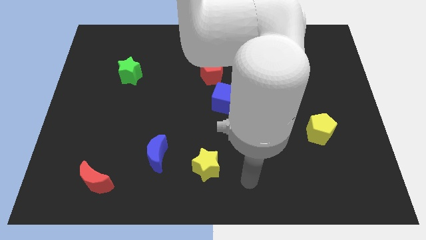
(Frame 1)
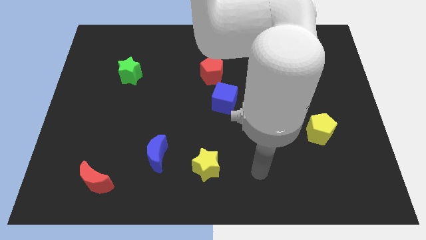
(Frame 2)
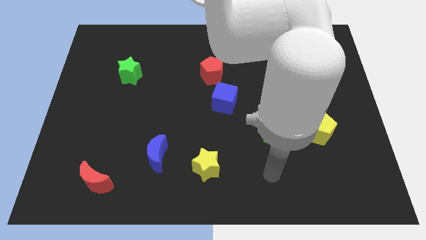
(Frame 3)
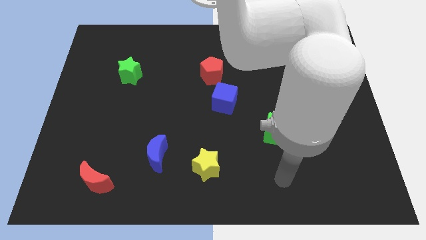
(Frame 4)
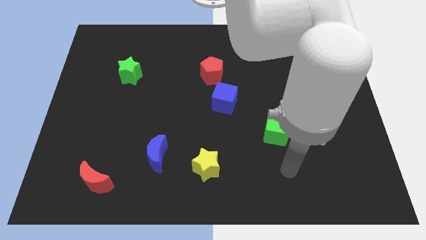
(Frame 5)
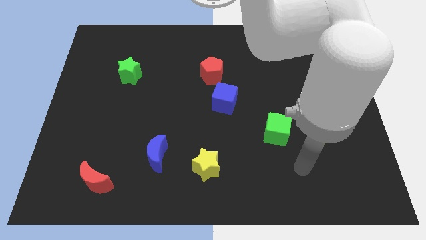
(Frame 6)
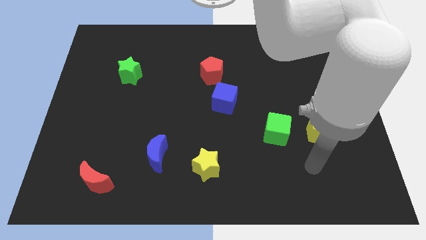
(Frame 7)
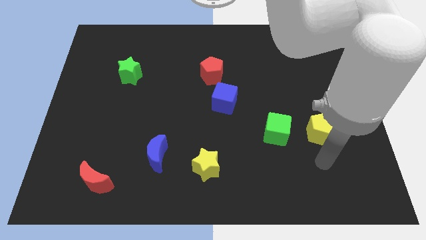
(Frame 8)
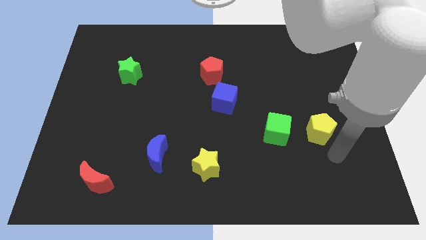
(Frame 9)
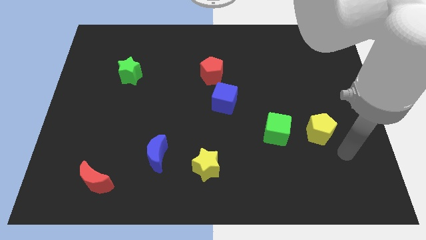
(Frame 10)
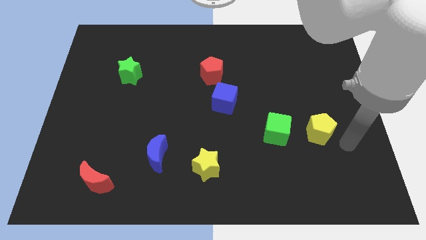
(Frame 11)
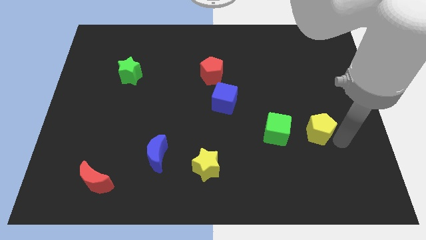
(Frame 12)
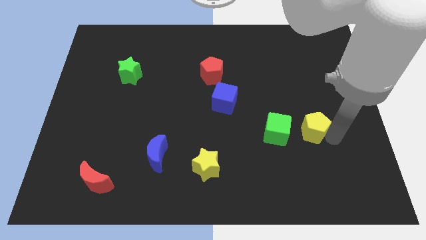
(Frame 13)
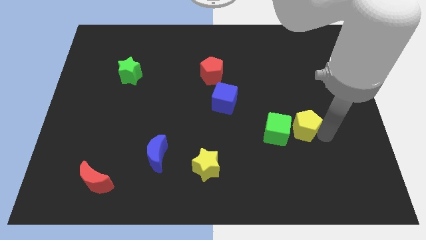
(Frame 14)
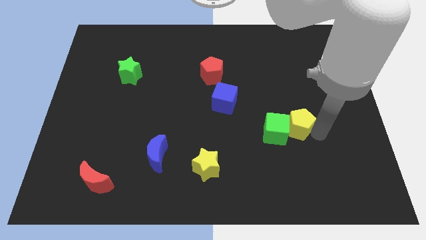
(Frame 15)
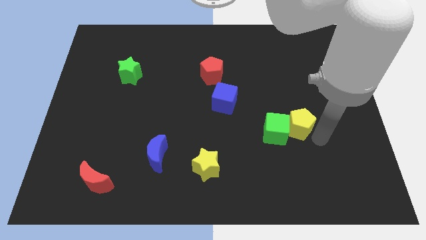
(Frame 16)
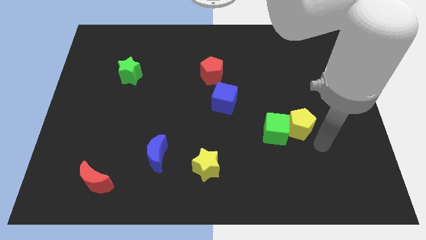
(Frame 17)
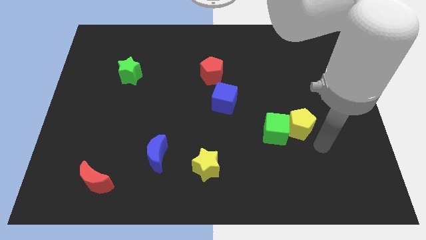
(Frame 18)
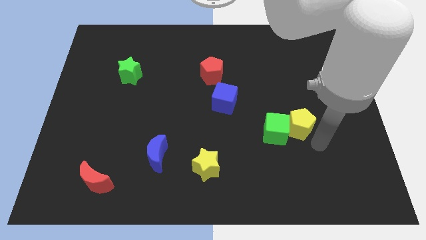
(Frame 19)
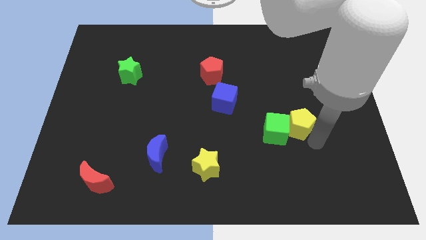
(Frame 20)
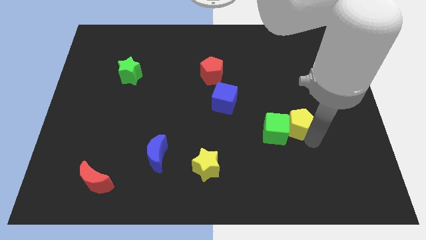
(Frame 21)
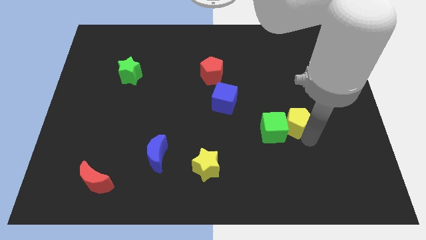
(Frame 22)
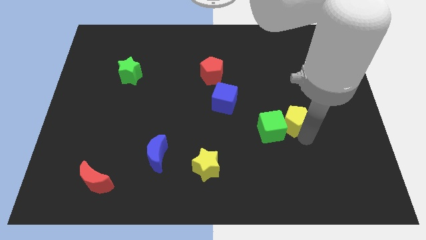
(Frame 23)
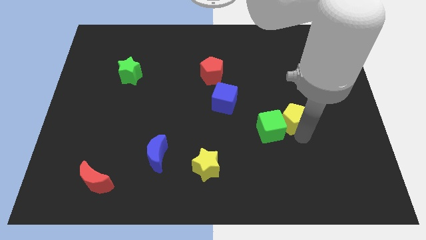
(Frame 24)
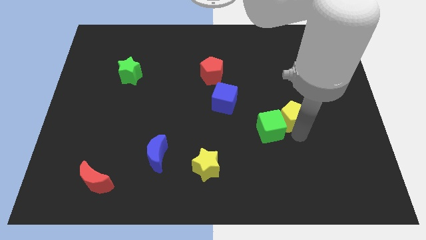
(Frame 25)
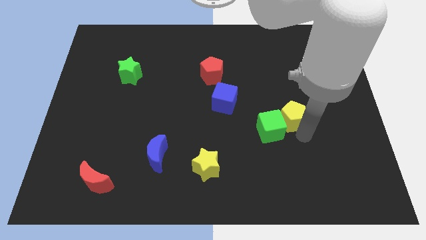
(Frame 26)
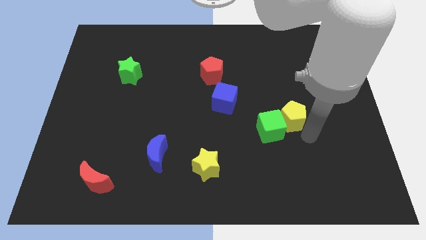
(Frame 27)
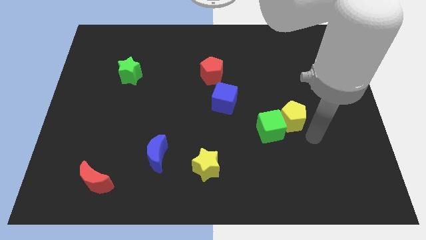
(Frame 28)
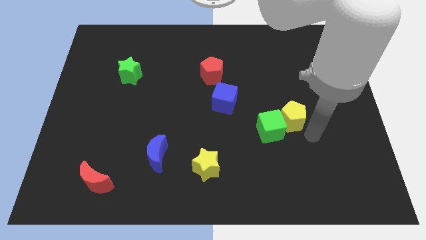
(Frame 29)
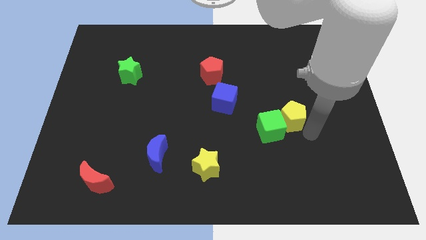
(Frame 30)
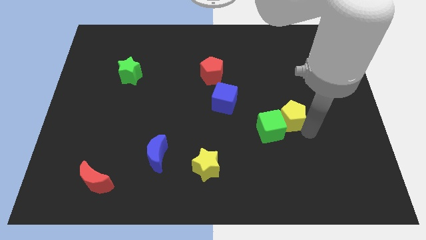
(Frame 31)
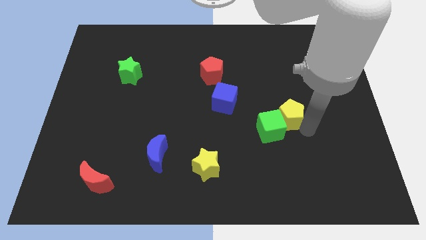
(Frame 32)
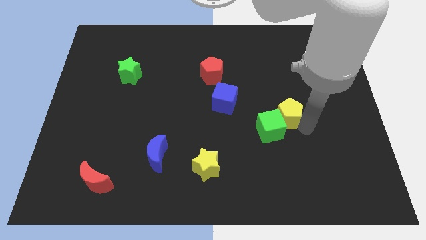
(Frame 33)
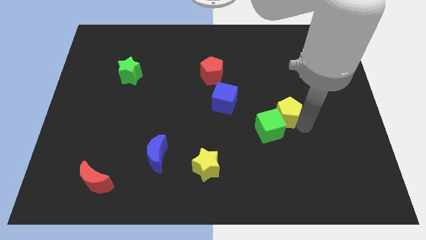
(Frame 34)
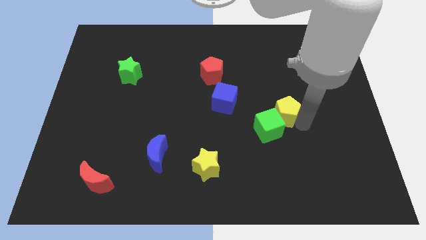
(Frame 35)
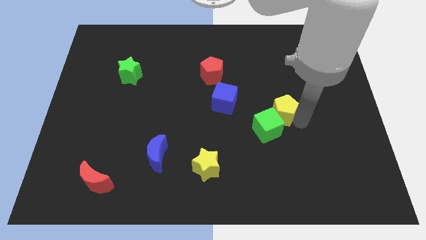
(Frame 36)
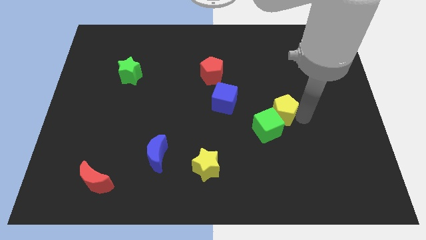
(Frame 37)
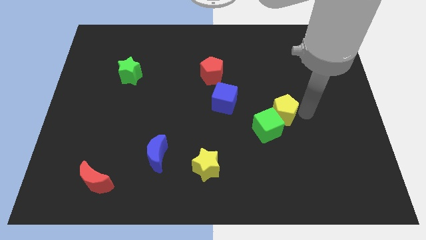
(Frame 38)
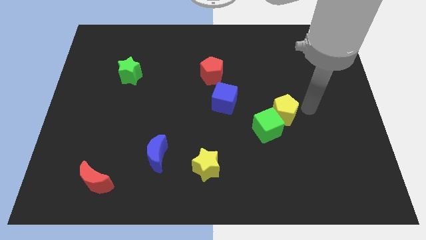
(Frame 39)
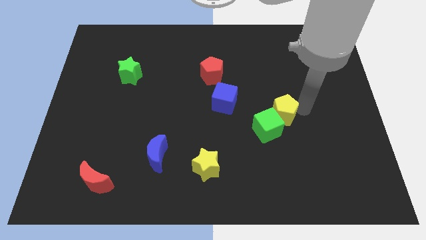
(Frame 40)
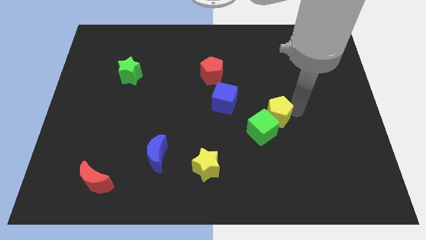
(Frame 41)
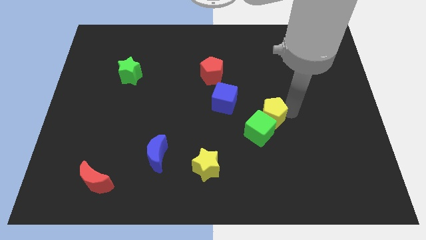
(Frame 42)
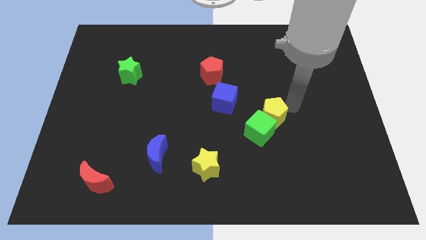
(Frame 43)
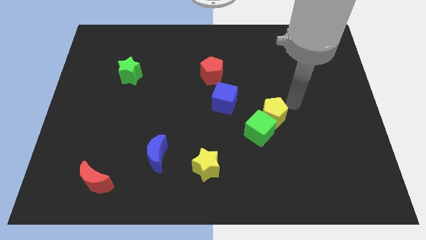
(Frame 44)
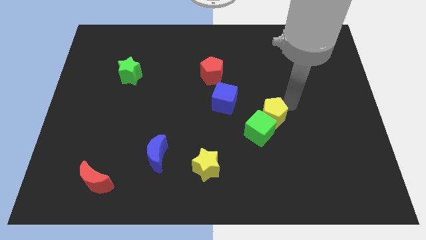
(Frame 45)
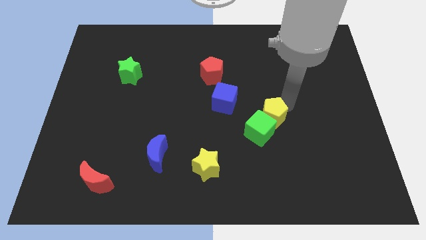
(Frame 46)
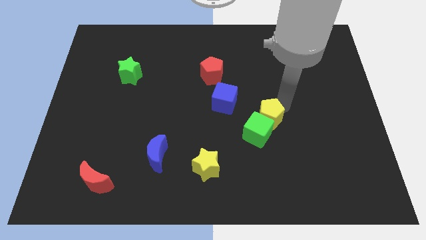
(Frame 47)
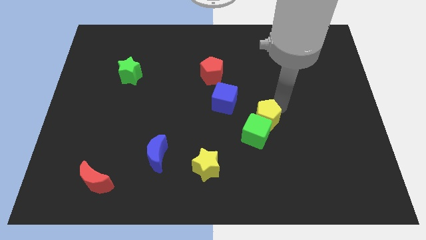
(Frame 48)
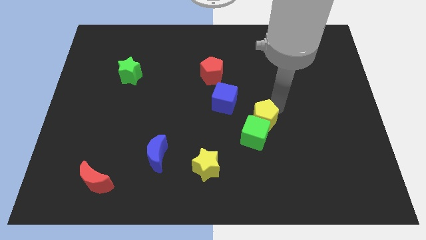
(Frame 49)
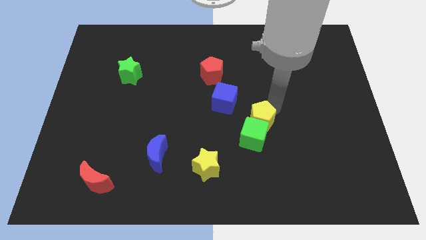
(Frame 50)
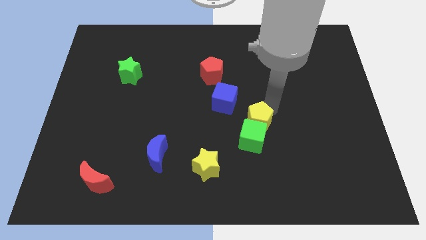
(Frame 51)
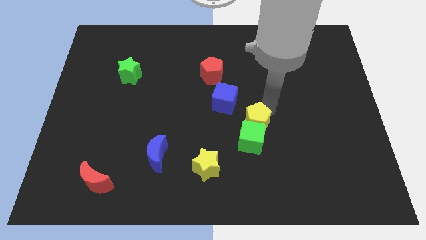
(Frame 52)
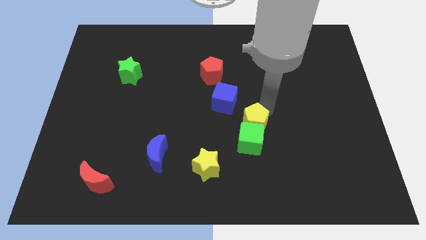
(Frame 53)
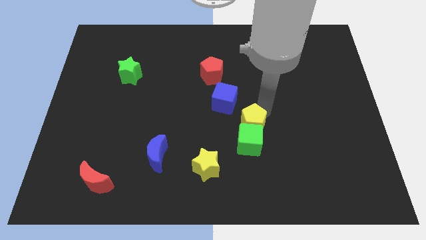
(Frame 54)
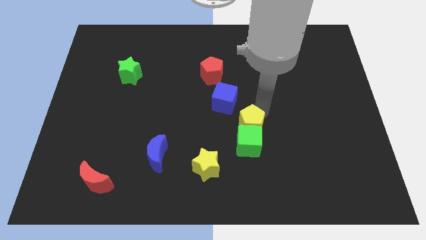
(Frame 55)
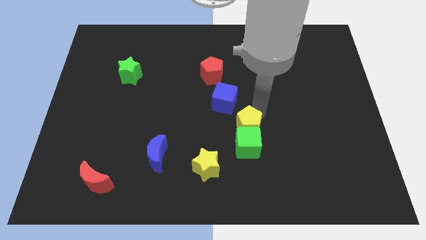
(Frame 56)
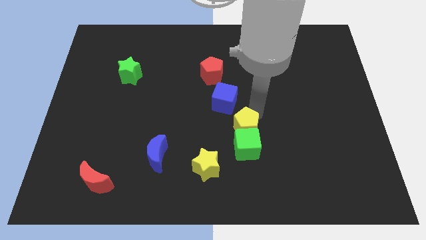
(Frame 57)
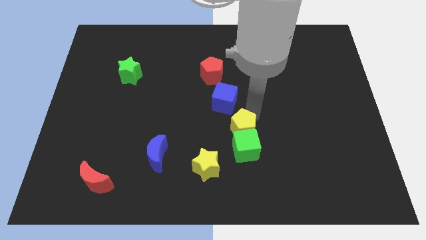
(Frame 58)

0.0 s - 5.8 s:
put the yellow pentagon diagonally up and to the right of the yellow star

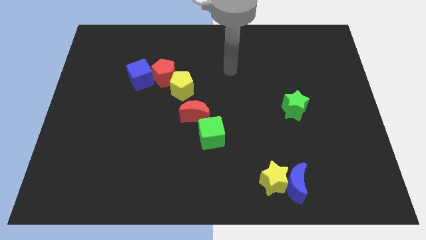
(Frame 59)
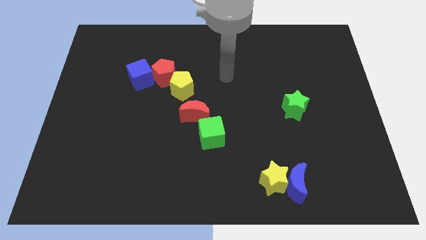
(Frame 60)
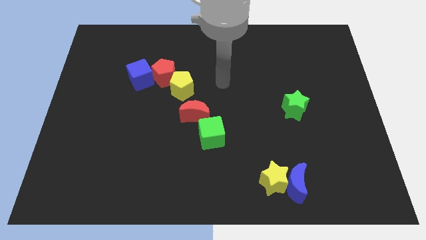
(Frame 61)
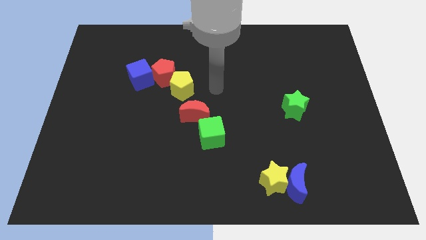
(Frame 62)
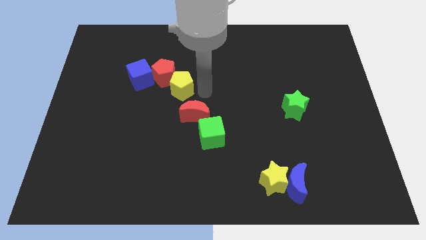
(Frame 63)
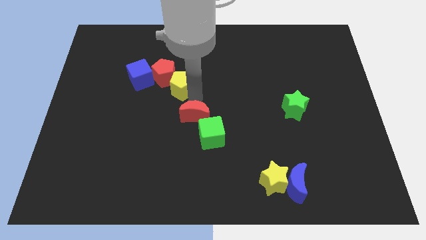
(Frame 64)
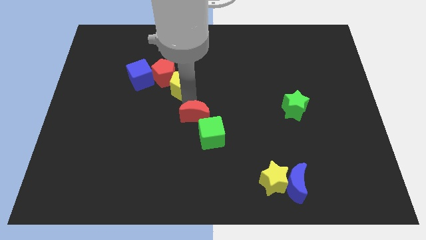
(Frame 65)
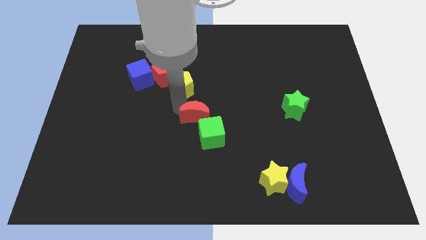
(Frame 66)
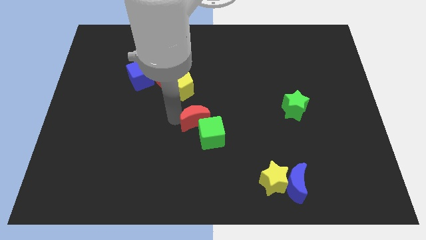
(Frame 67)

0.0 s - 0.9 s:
move the green cube to the right of the red moon
